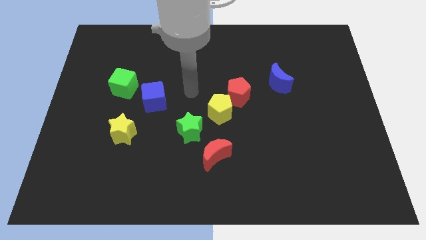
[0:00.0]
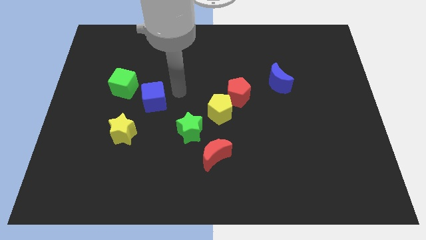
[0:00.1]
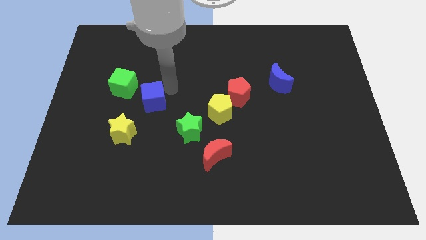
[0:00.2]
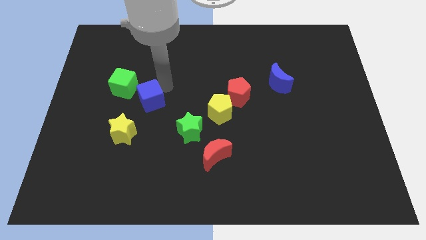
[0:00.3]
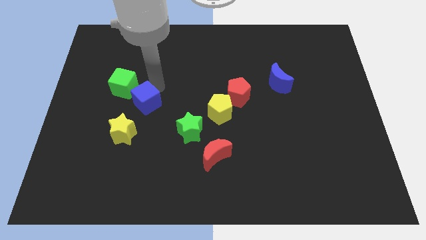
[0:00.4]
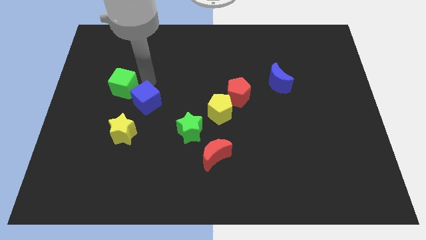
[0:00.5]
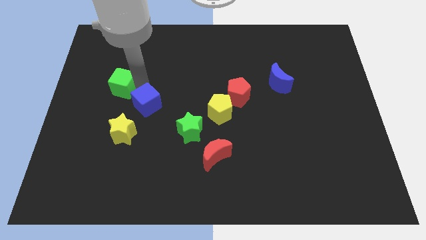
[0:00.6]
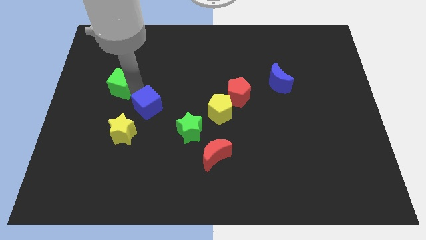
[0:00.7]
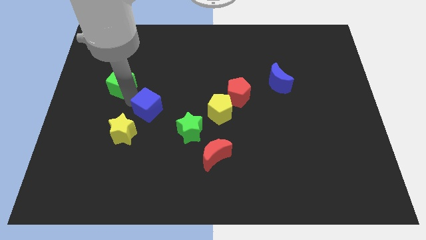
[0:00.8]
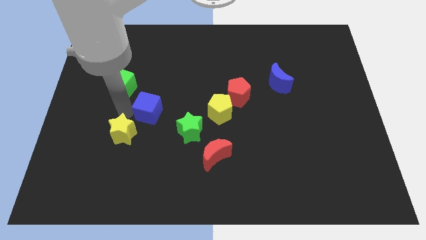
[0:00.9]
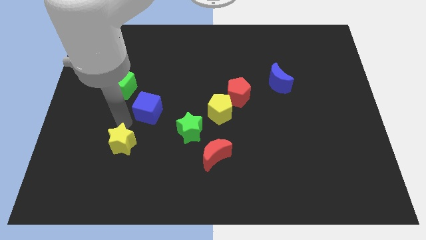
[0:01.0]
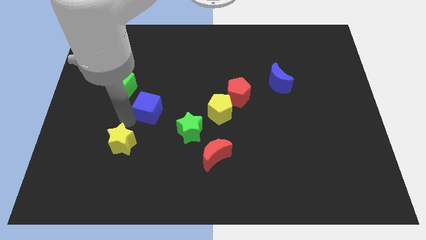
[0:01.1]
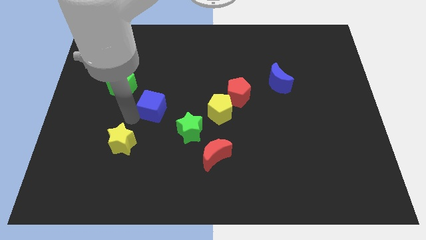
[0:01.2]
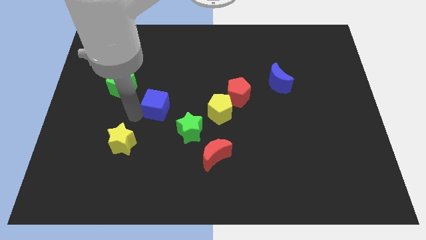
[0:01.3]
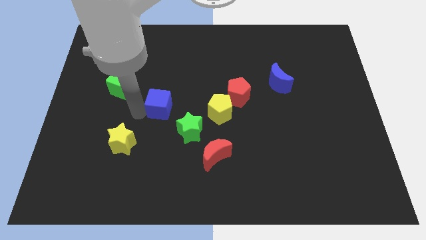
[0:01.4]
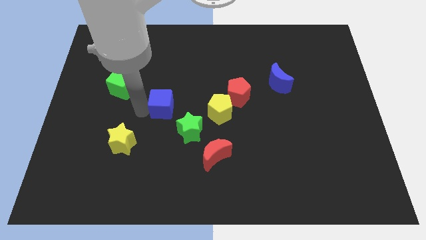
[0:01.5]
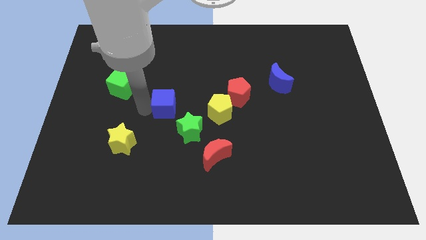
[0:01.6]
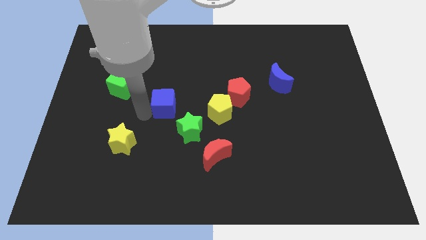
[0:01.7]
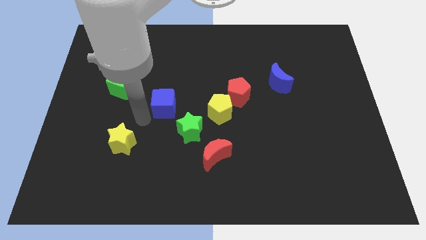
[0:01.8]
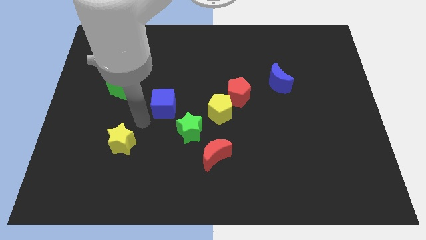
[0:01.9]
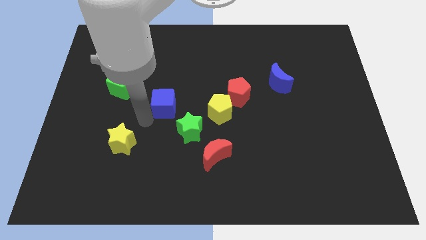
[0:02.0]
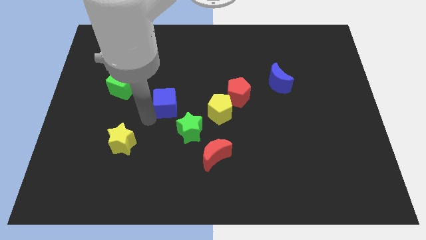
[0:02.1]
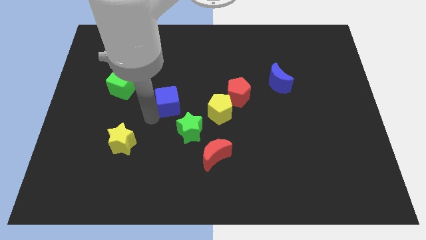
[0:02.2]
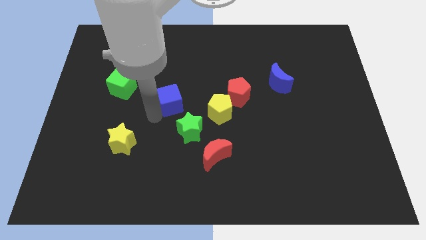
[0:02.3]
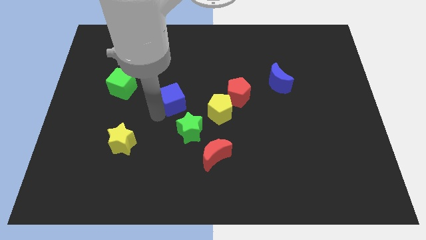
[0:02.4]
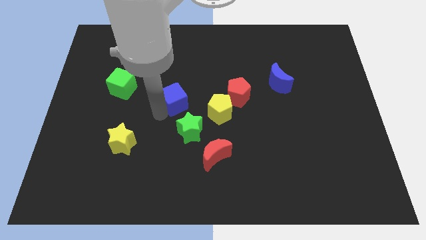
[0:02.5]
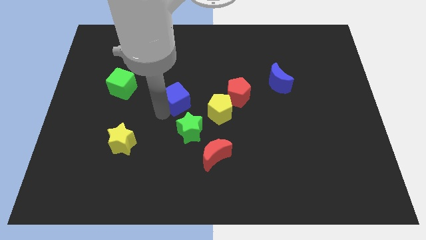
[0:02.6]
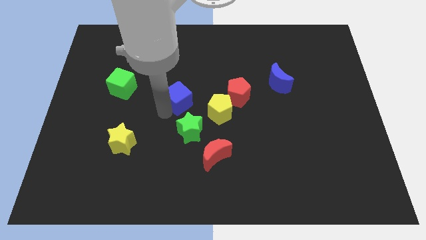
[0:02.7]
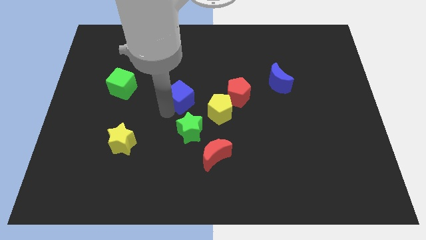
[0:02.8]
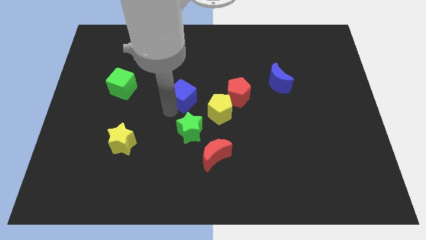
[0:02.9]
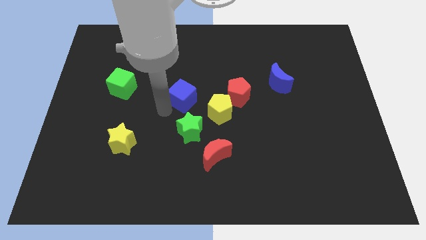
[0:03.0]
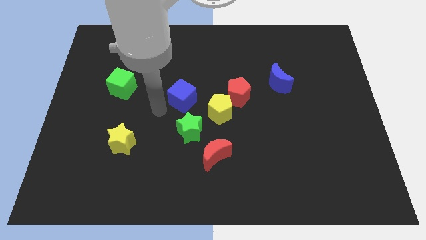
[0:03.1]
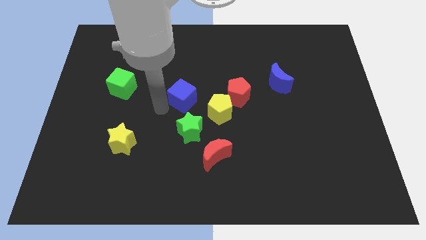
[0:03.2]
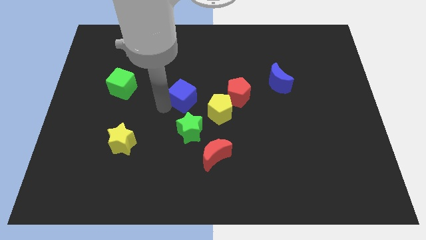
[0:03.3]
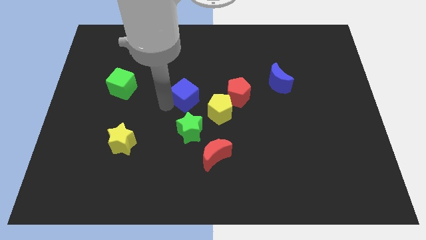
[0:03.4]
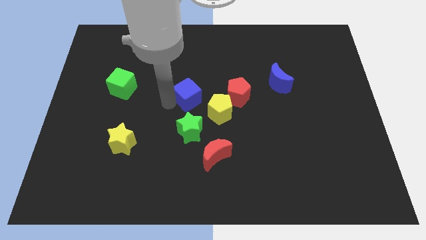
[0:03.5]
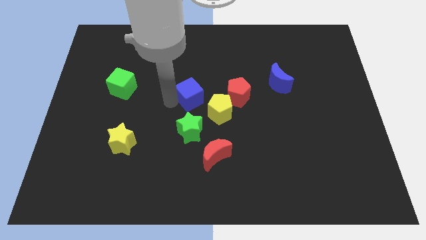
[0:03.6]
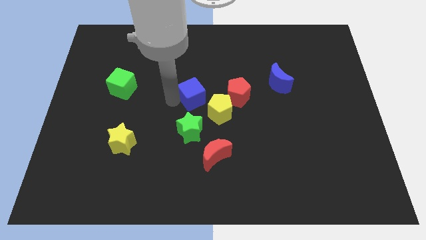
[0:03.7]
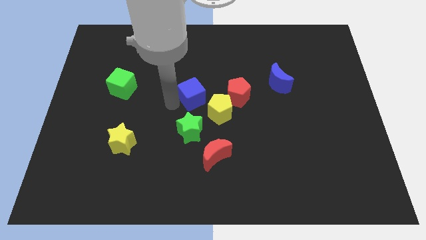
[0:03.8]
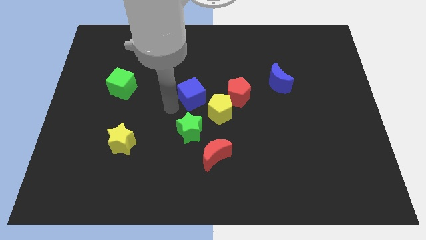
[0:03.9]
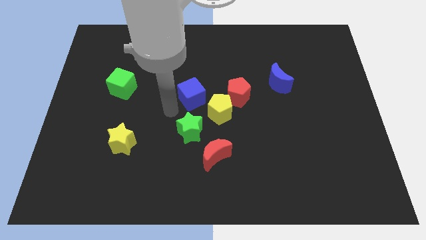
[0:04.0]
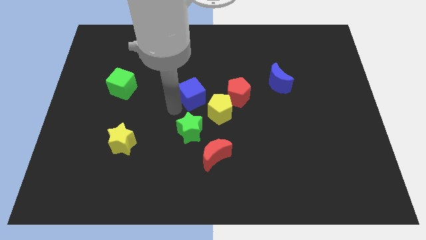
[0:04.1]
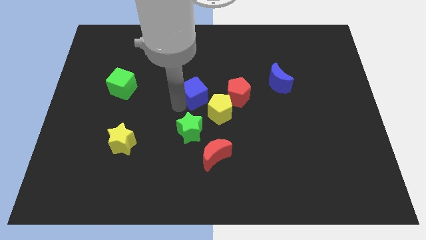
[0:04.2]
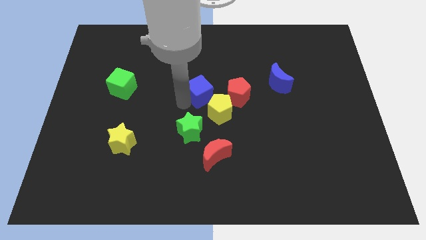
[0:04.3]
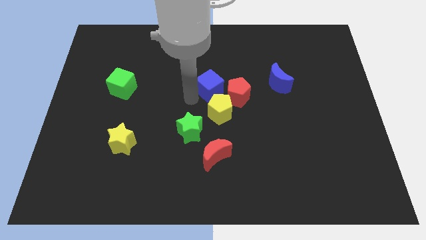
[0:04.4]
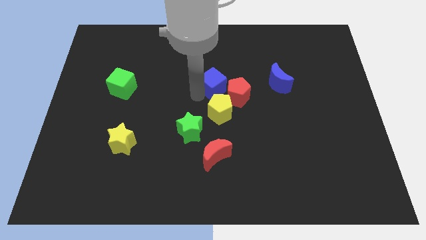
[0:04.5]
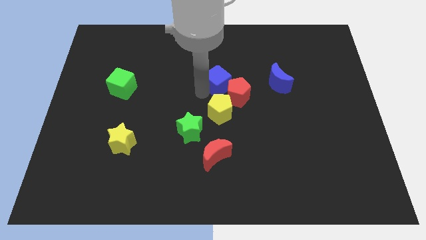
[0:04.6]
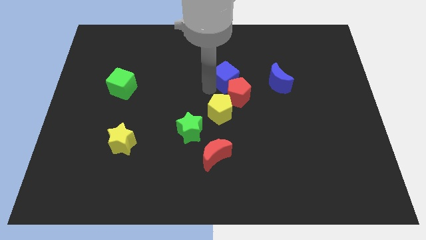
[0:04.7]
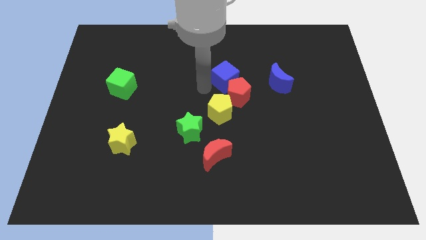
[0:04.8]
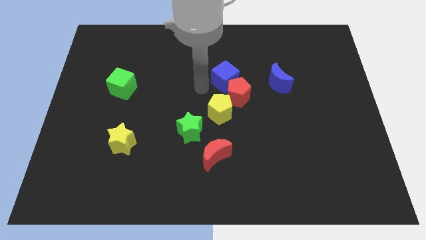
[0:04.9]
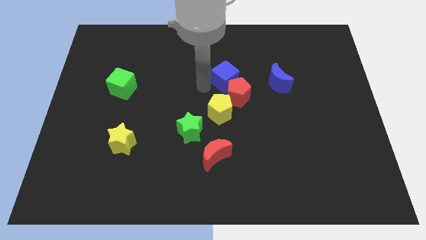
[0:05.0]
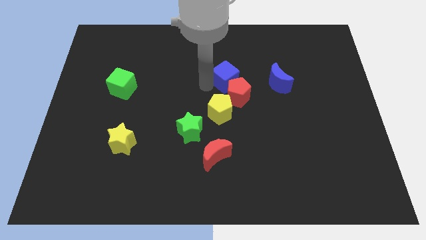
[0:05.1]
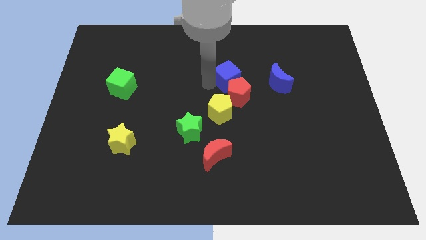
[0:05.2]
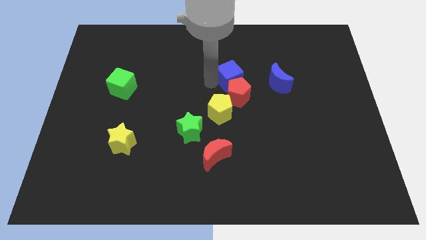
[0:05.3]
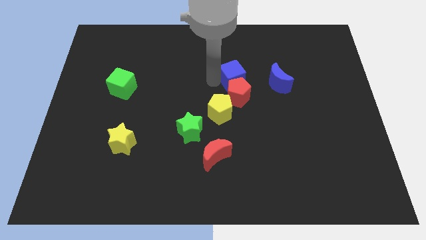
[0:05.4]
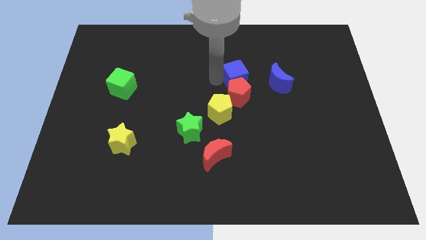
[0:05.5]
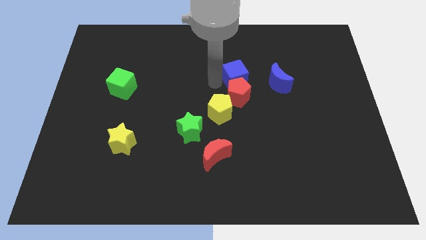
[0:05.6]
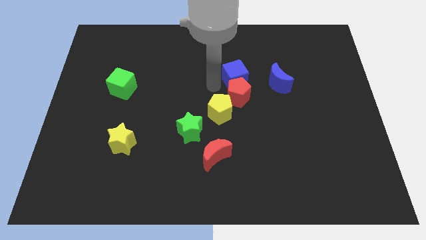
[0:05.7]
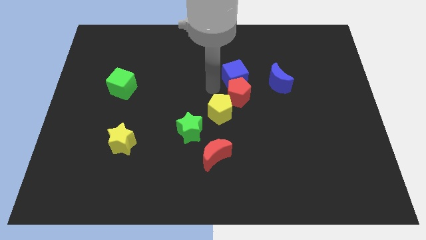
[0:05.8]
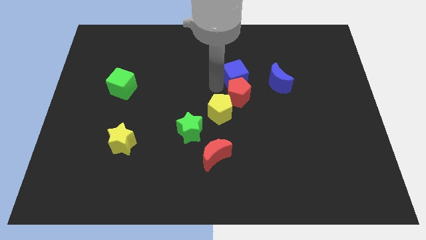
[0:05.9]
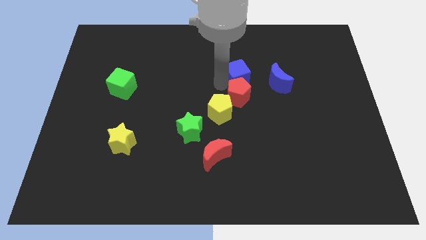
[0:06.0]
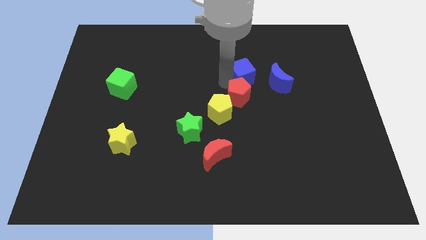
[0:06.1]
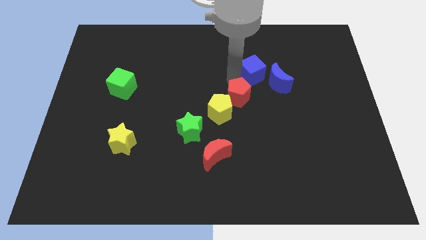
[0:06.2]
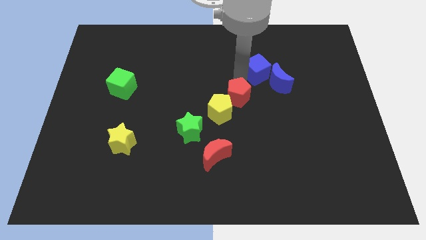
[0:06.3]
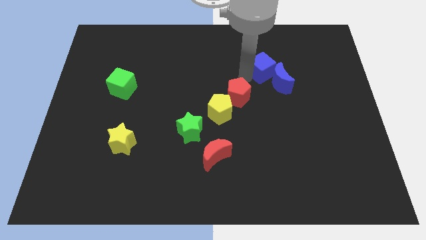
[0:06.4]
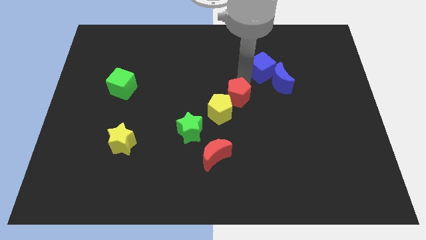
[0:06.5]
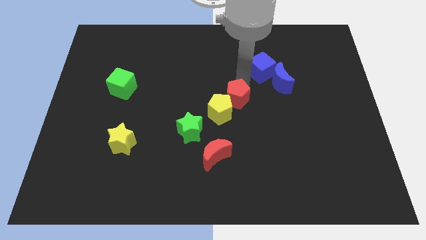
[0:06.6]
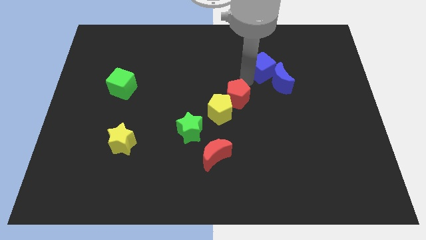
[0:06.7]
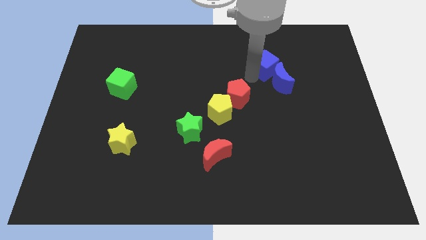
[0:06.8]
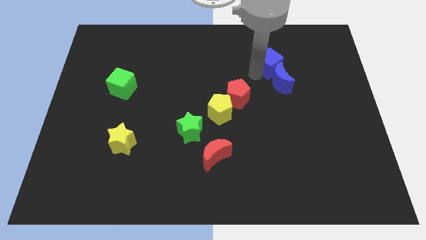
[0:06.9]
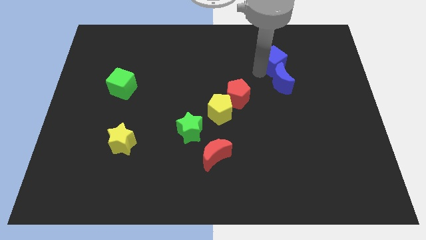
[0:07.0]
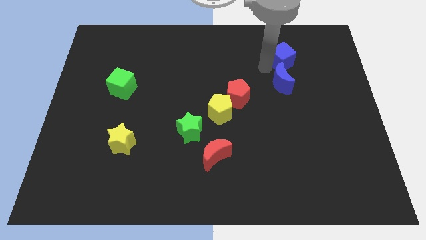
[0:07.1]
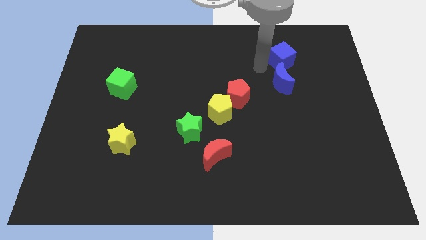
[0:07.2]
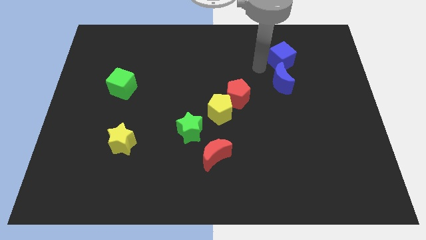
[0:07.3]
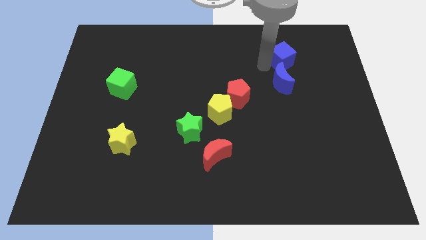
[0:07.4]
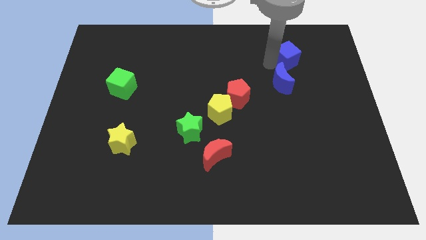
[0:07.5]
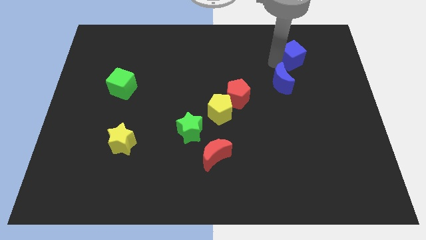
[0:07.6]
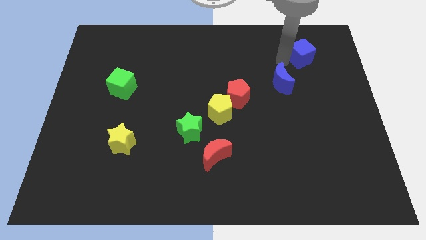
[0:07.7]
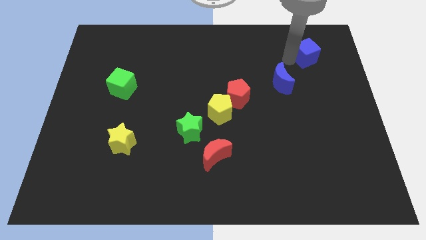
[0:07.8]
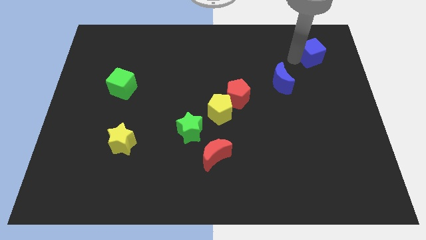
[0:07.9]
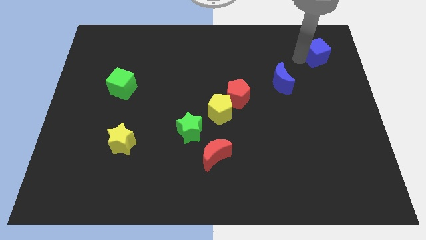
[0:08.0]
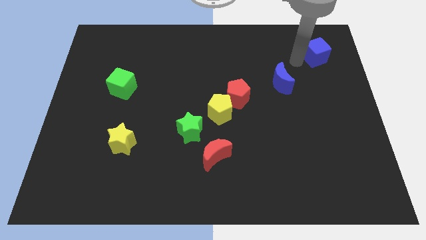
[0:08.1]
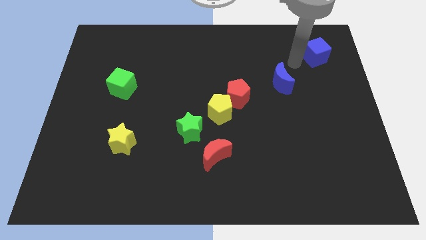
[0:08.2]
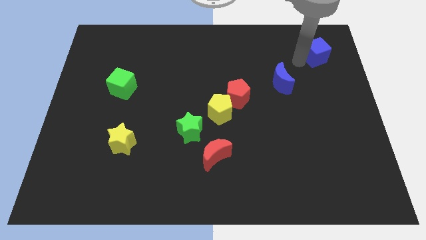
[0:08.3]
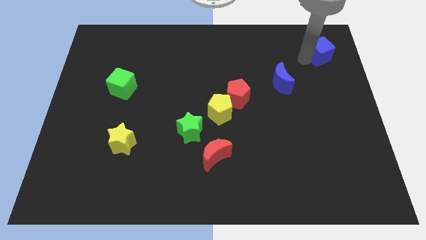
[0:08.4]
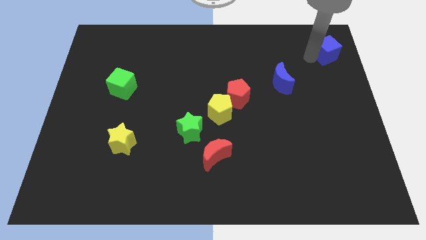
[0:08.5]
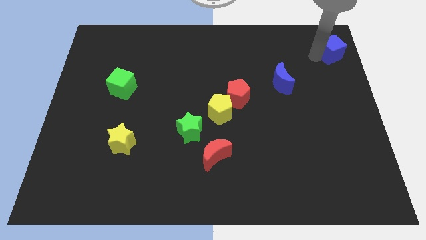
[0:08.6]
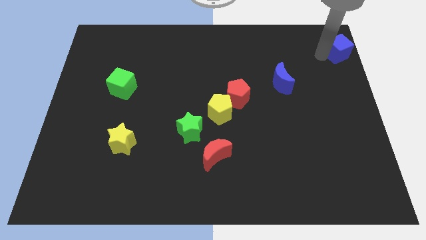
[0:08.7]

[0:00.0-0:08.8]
slide the blue cube to the top right of the board
